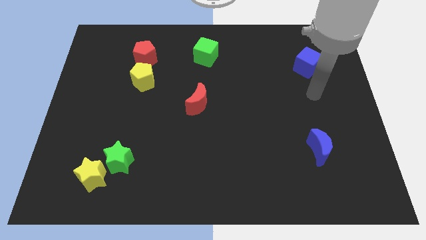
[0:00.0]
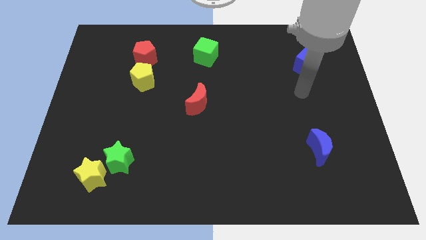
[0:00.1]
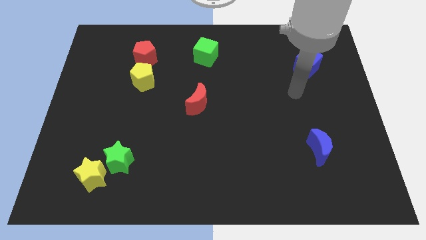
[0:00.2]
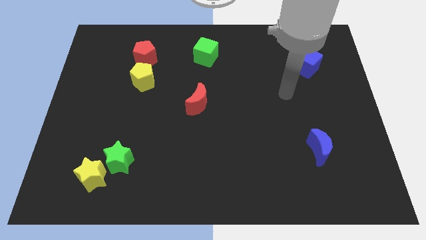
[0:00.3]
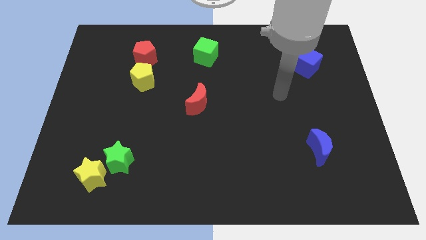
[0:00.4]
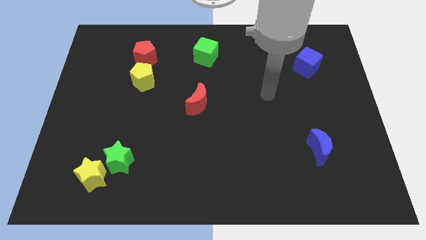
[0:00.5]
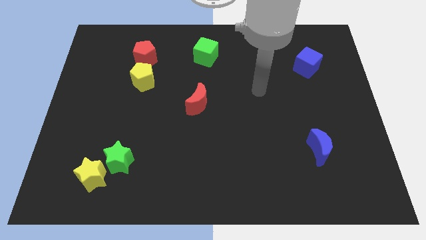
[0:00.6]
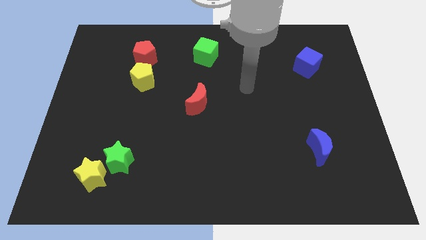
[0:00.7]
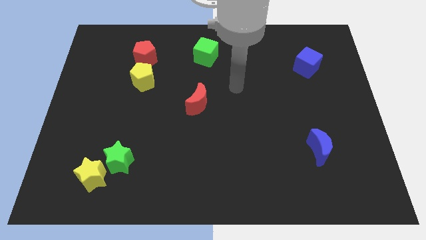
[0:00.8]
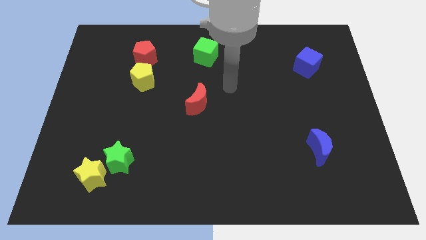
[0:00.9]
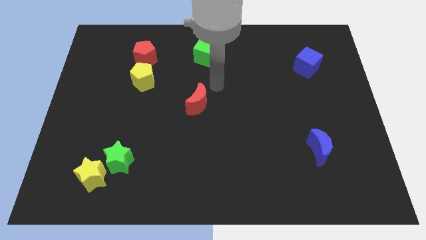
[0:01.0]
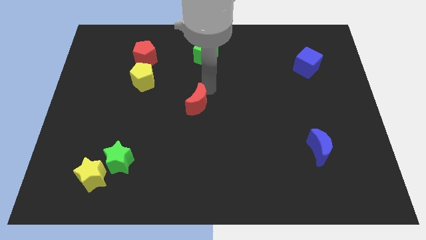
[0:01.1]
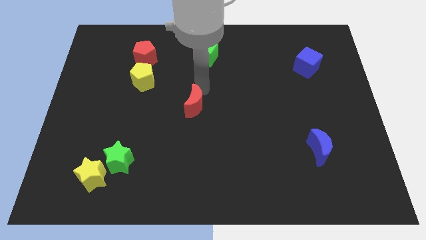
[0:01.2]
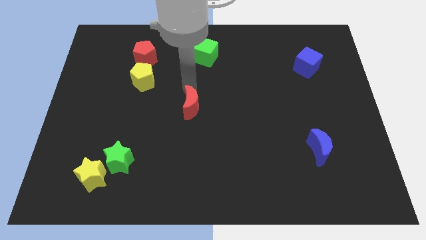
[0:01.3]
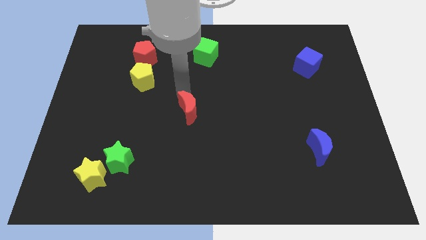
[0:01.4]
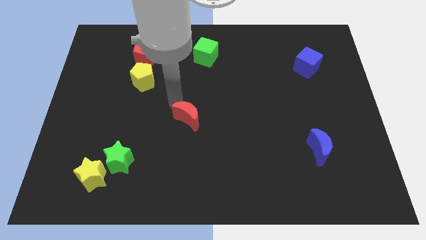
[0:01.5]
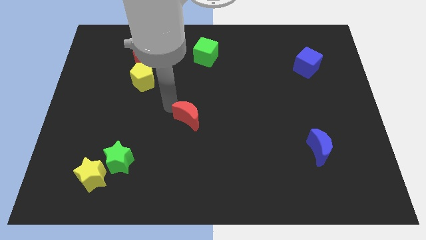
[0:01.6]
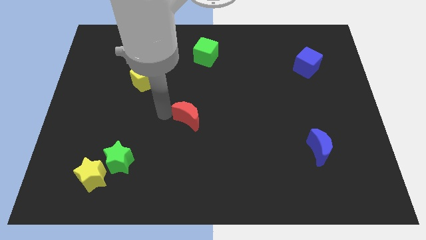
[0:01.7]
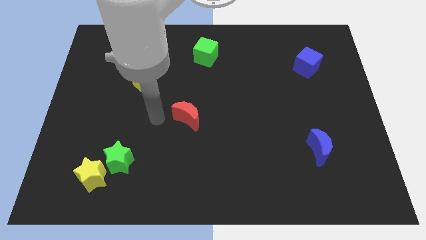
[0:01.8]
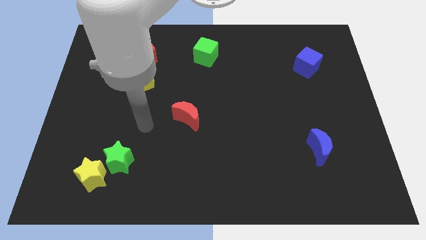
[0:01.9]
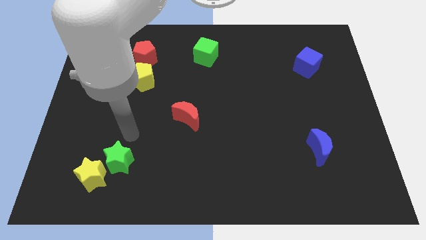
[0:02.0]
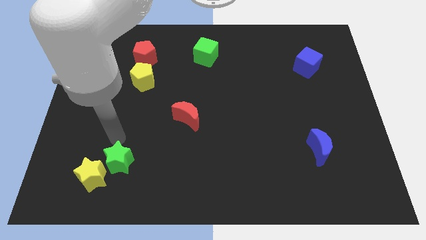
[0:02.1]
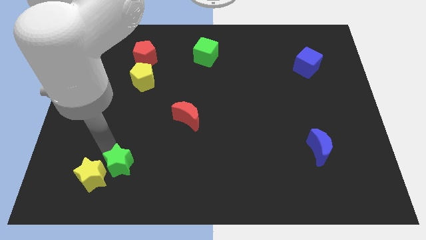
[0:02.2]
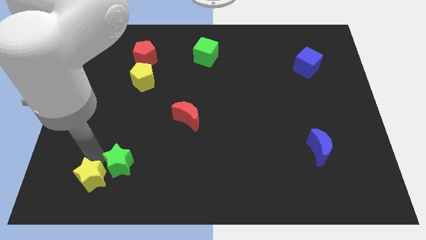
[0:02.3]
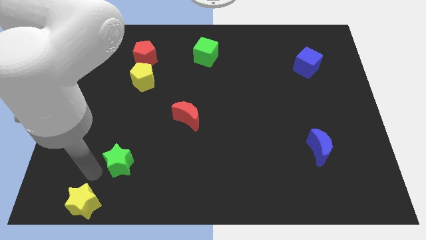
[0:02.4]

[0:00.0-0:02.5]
pull the green star apart from the yellow star

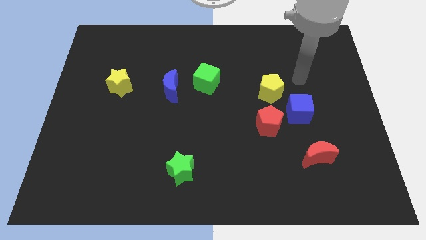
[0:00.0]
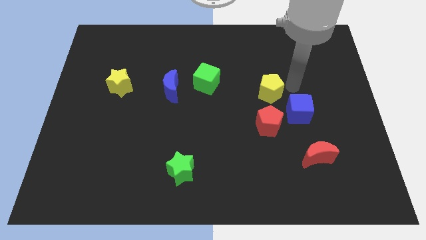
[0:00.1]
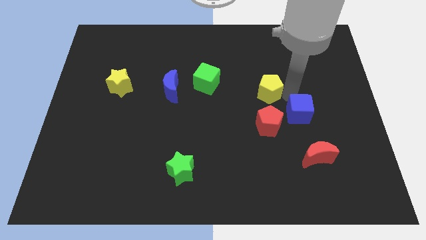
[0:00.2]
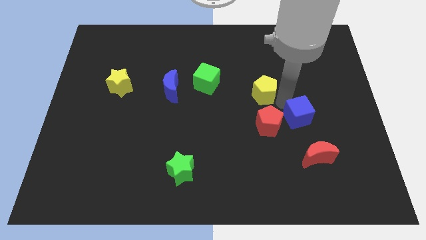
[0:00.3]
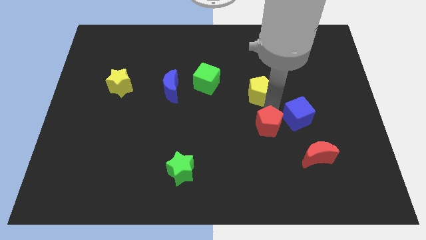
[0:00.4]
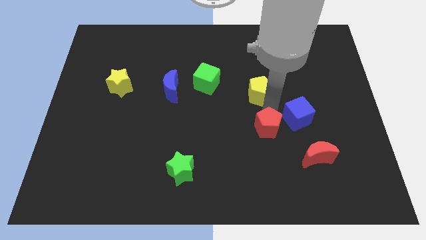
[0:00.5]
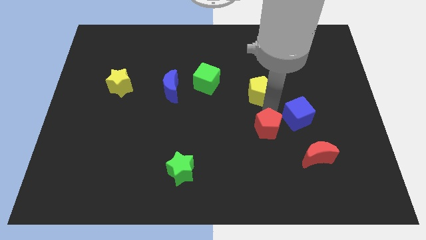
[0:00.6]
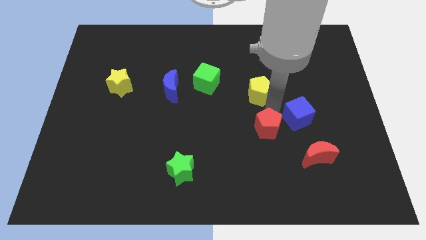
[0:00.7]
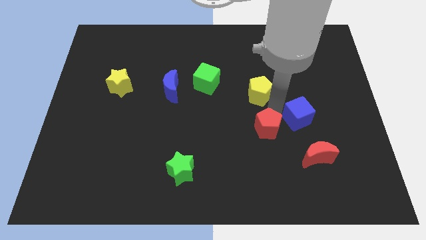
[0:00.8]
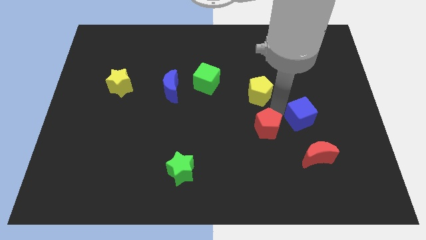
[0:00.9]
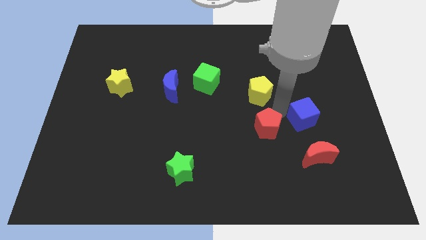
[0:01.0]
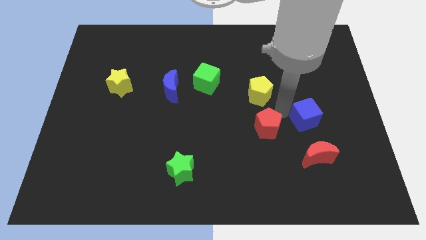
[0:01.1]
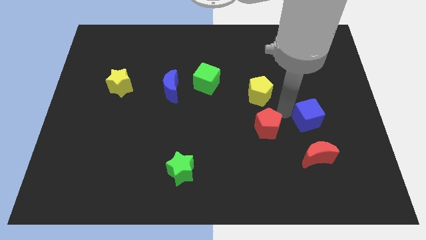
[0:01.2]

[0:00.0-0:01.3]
separate the blue cube from the red pentagon and yellow pentagon

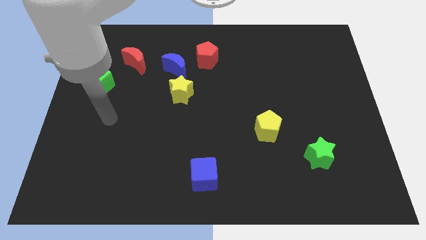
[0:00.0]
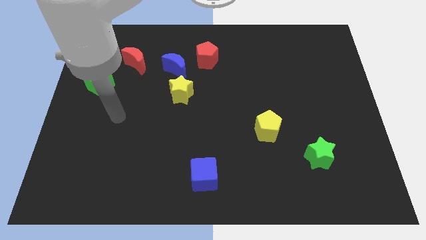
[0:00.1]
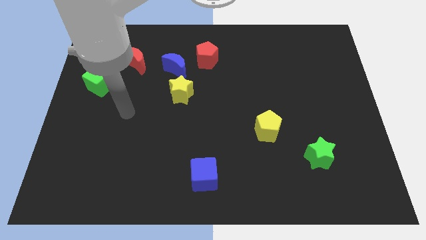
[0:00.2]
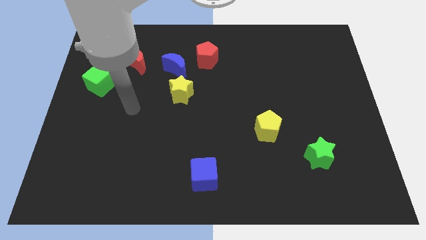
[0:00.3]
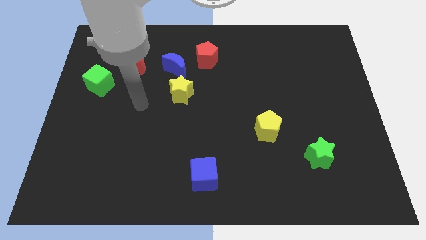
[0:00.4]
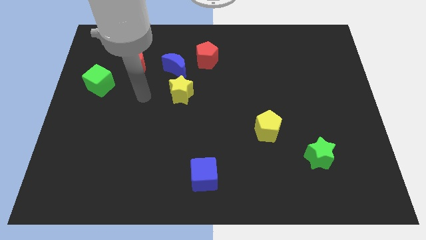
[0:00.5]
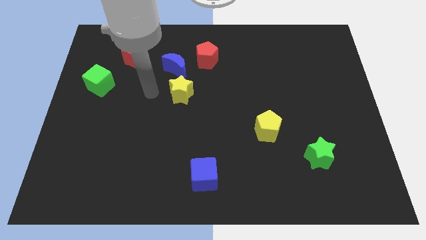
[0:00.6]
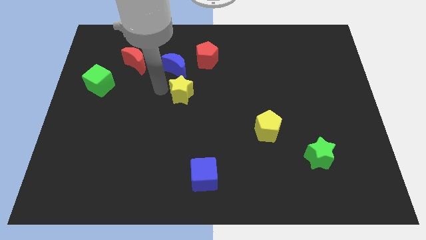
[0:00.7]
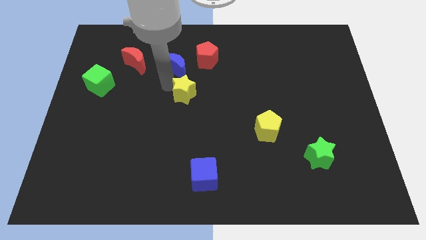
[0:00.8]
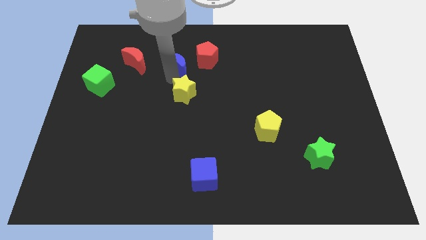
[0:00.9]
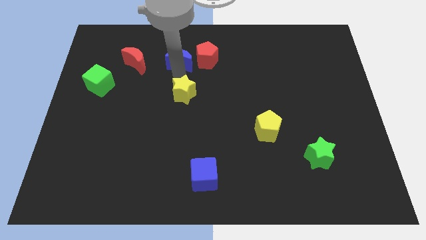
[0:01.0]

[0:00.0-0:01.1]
separate the yellow star from the blue moon

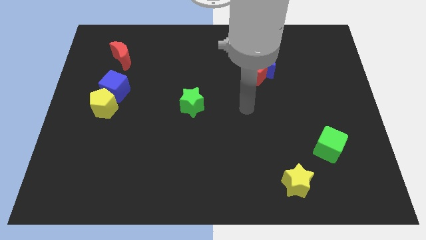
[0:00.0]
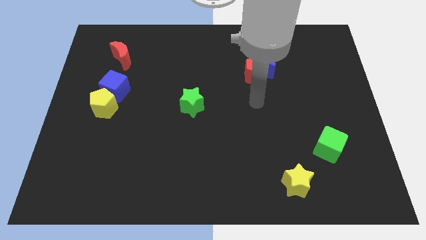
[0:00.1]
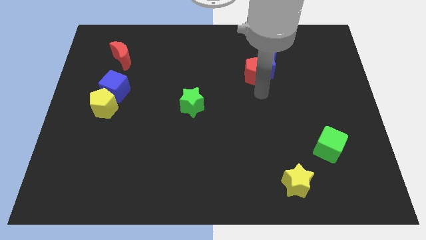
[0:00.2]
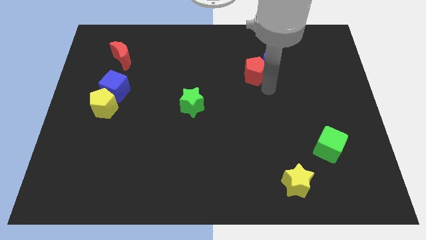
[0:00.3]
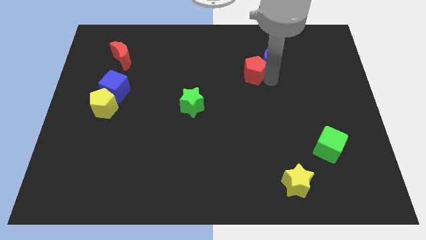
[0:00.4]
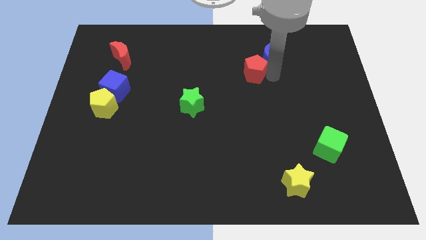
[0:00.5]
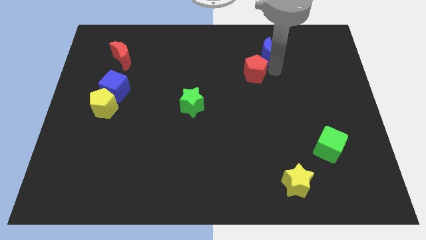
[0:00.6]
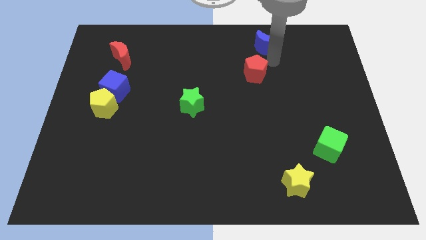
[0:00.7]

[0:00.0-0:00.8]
move the red pentagon away from the blue moon

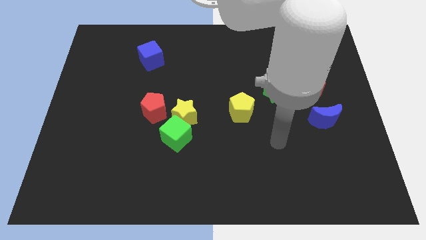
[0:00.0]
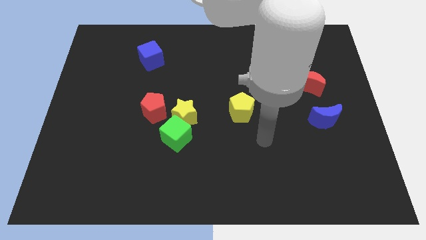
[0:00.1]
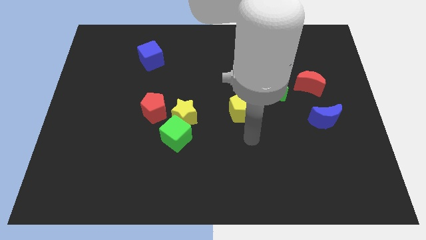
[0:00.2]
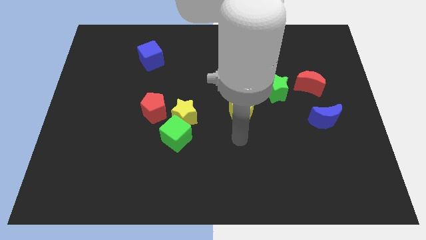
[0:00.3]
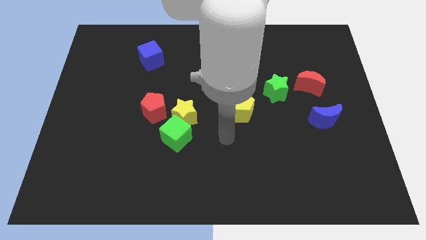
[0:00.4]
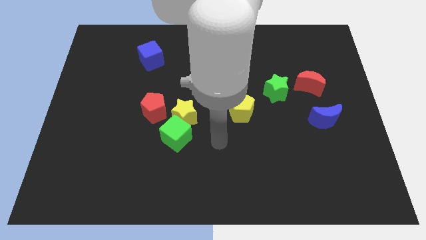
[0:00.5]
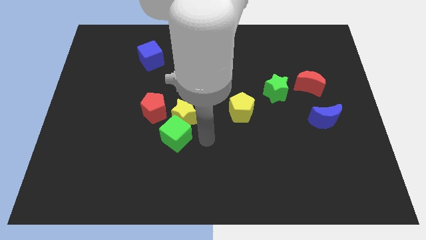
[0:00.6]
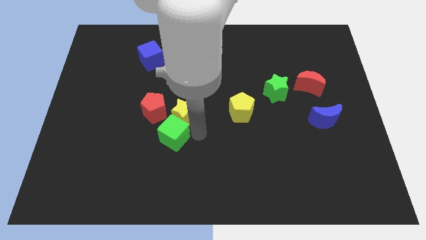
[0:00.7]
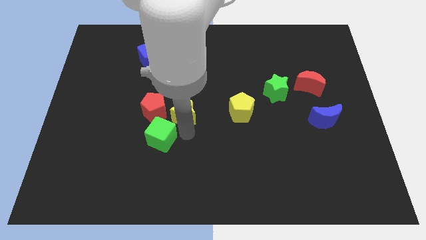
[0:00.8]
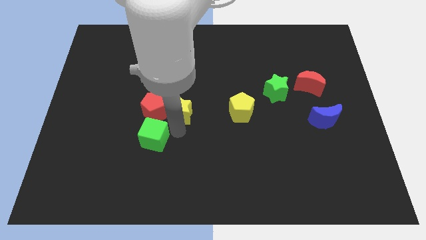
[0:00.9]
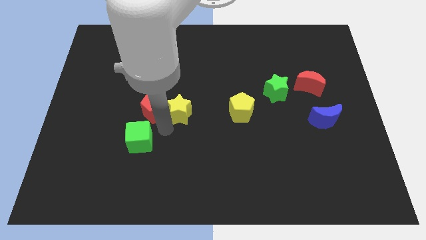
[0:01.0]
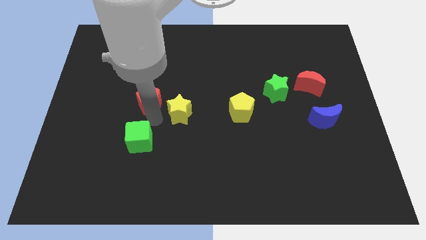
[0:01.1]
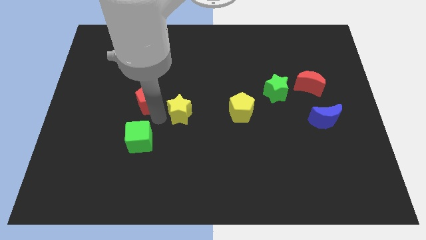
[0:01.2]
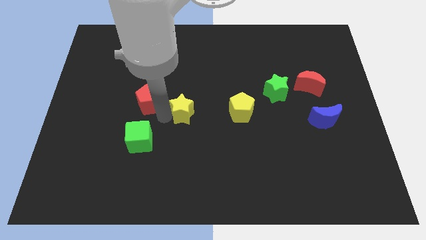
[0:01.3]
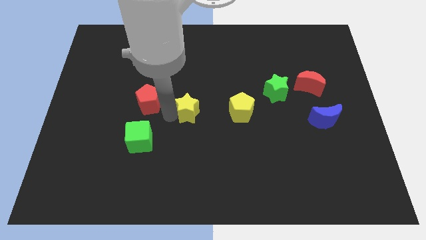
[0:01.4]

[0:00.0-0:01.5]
separate the yellow star from the green cube and red pentagon

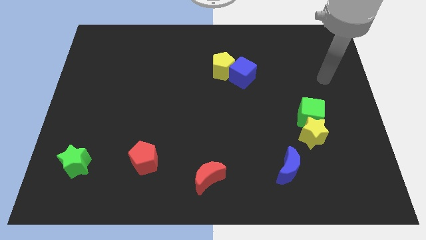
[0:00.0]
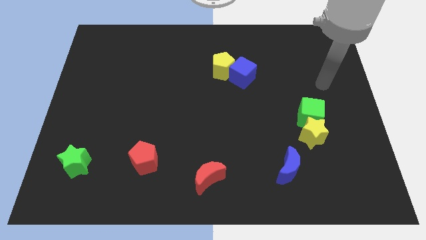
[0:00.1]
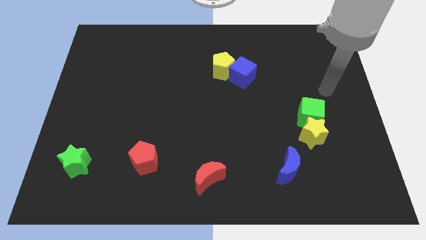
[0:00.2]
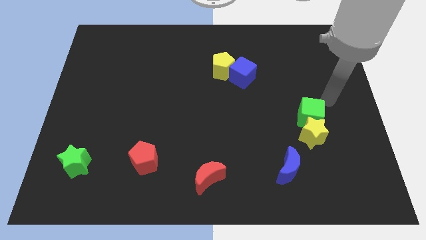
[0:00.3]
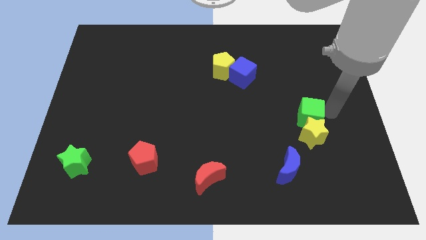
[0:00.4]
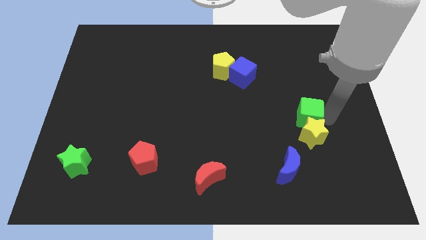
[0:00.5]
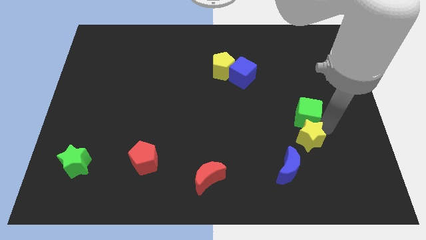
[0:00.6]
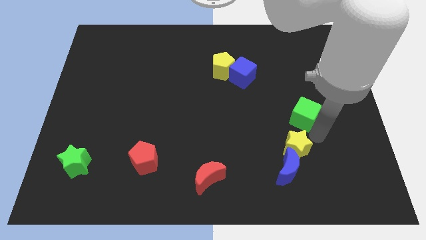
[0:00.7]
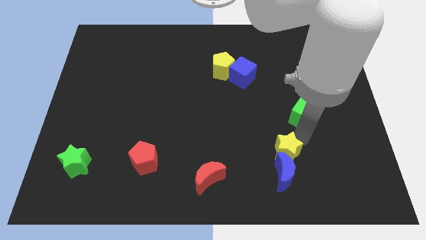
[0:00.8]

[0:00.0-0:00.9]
pull the green cube apart from the yellow star

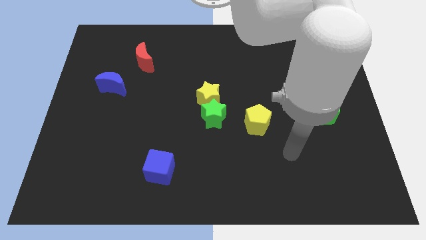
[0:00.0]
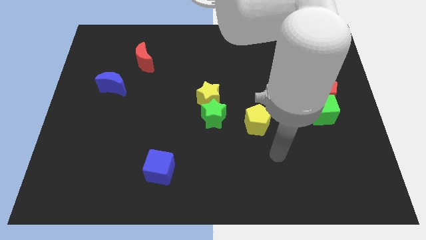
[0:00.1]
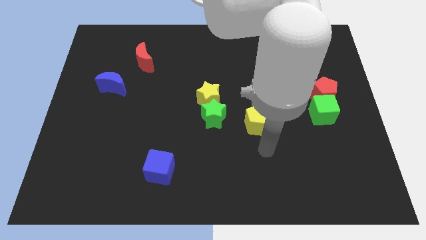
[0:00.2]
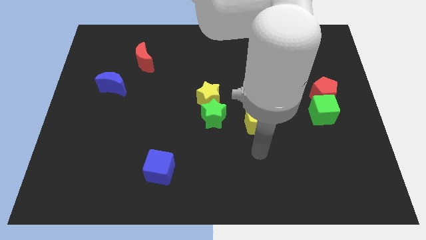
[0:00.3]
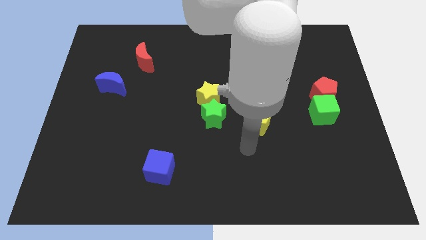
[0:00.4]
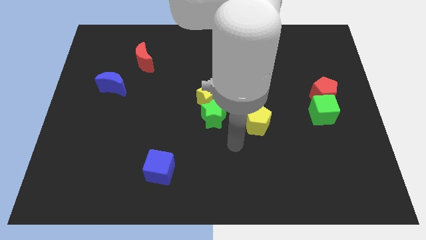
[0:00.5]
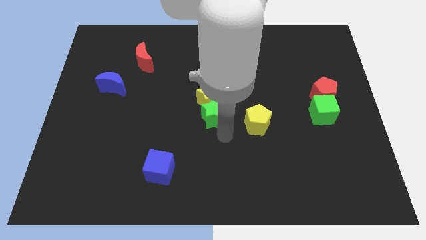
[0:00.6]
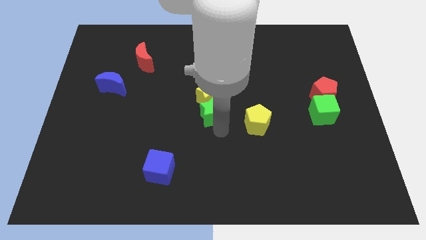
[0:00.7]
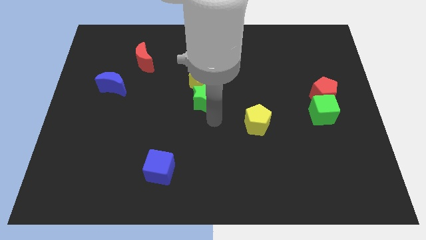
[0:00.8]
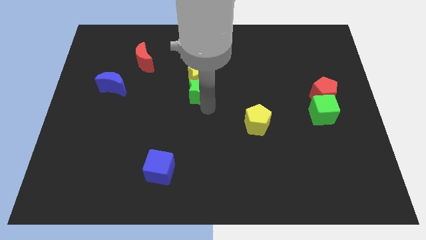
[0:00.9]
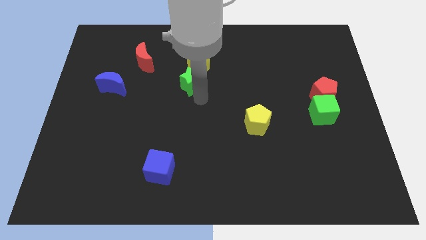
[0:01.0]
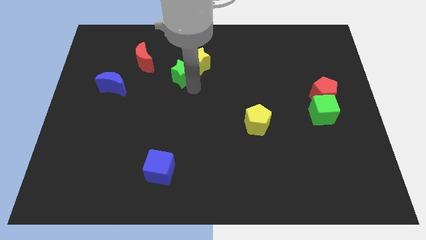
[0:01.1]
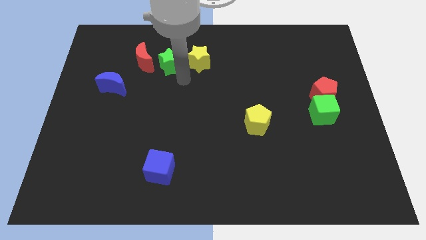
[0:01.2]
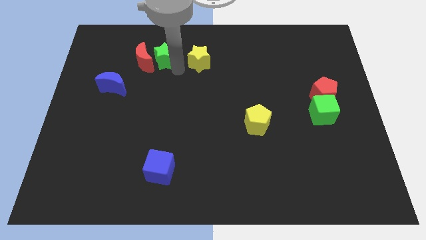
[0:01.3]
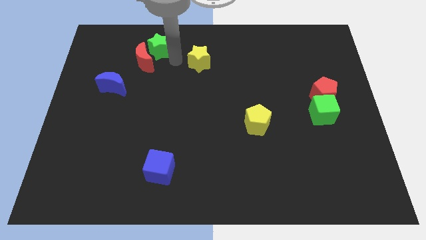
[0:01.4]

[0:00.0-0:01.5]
move the yellow star away from the green star
